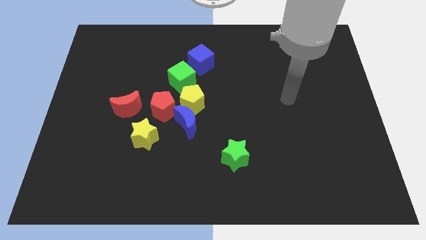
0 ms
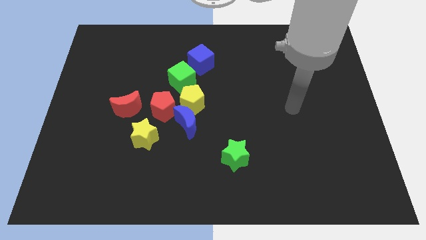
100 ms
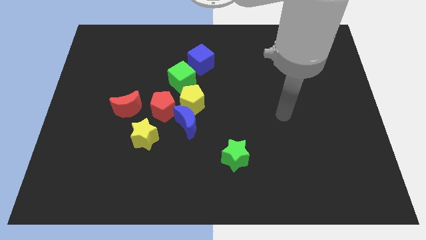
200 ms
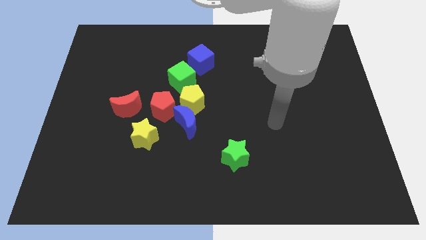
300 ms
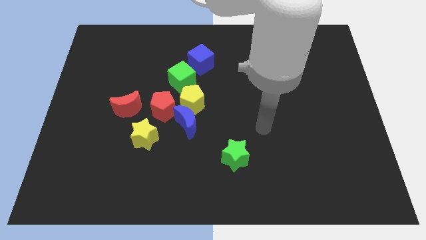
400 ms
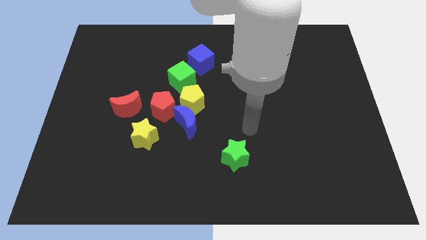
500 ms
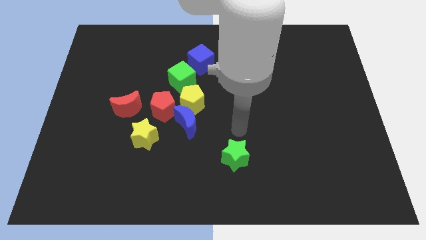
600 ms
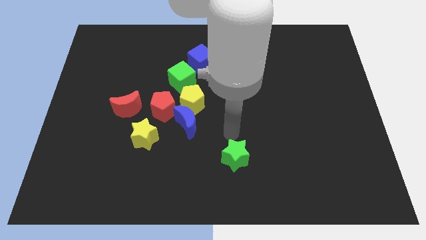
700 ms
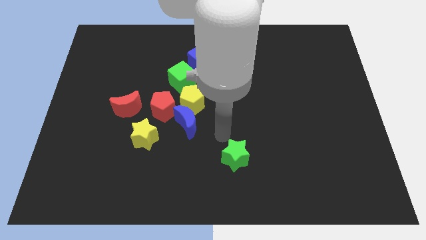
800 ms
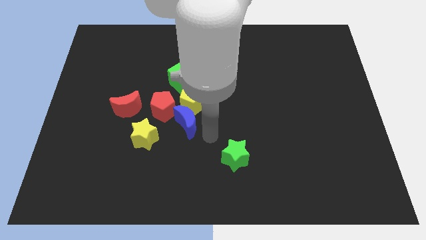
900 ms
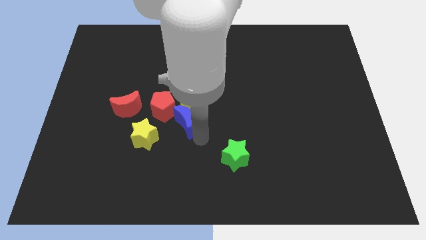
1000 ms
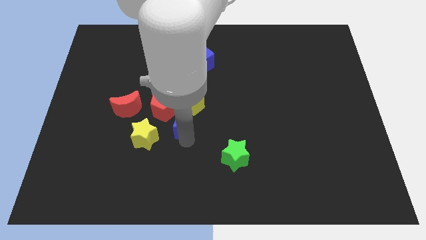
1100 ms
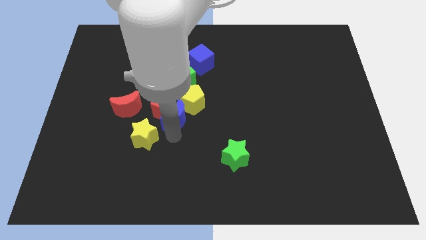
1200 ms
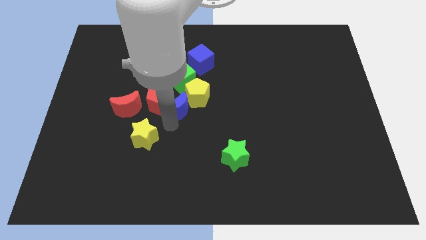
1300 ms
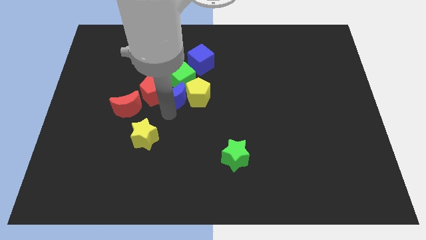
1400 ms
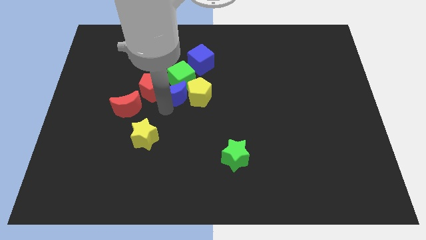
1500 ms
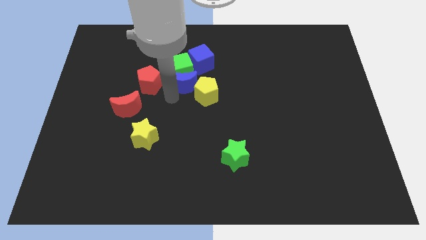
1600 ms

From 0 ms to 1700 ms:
move the yellow pentagon away from the group of blocks

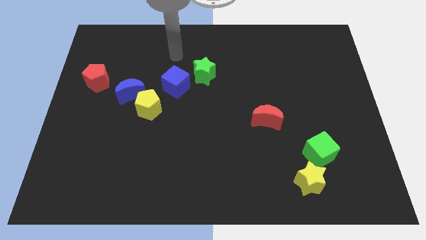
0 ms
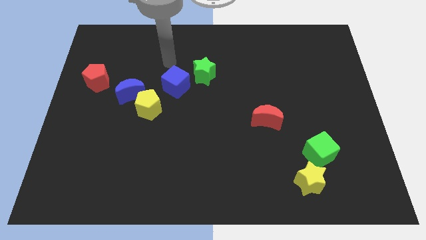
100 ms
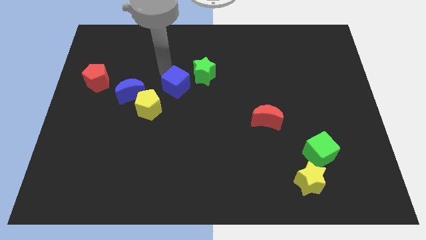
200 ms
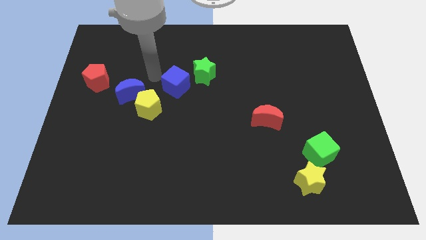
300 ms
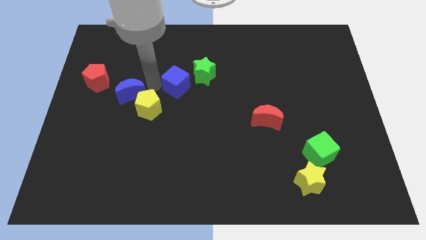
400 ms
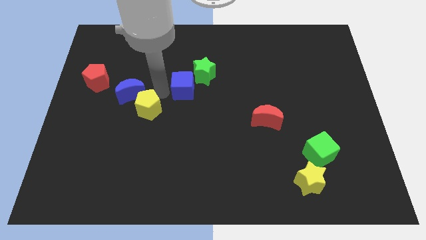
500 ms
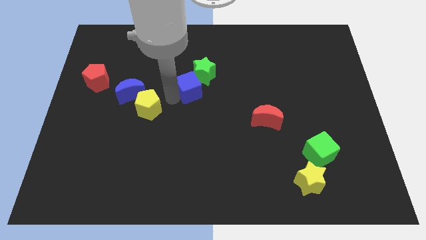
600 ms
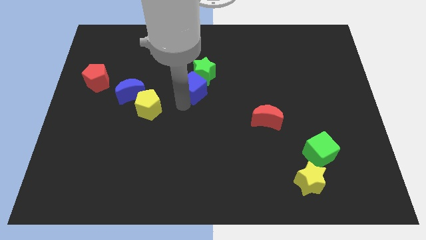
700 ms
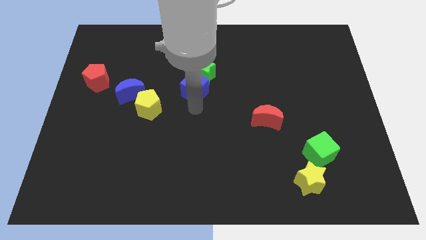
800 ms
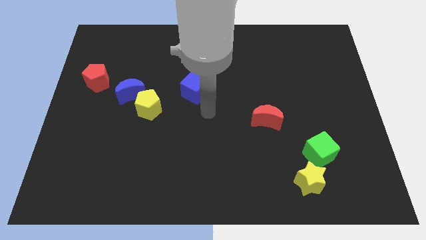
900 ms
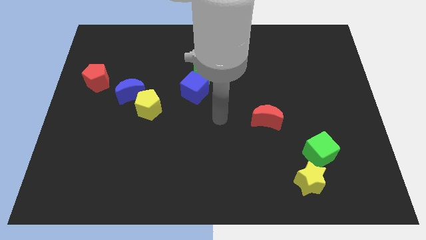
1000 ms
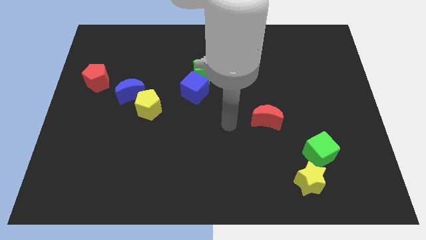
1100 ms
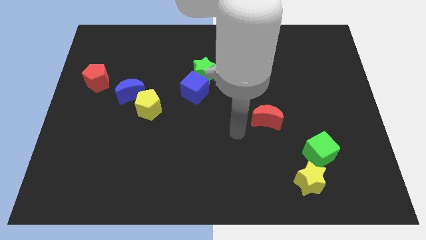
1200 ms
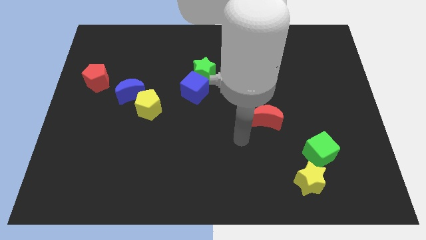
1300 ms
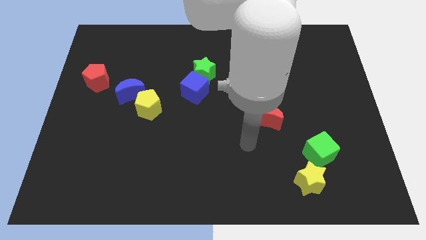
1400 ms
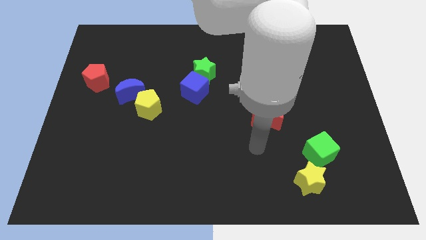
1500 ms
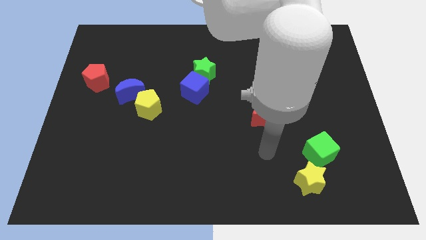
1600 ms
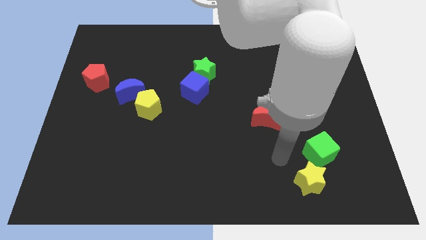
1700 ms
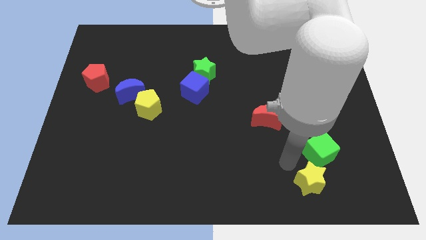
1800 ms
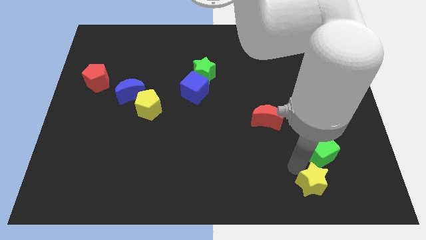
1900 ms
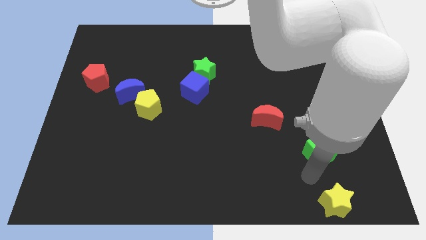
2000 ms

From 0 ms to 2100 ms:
move the green cube away from the yellow star

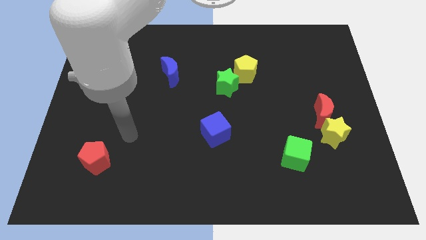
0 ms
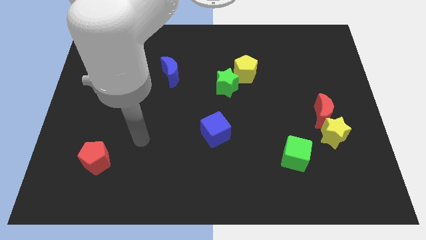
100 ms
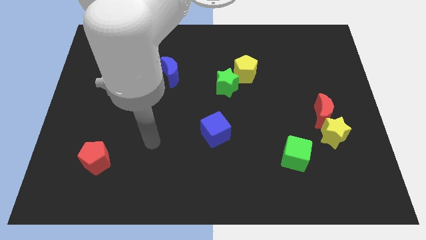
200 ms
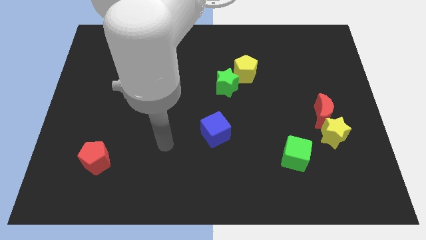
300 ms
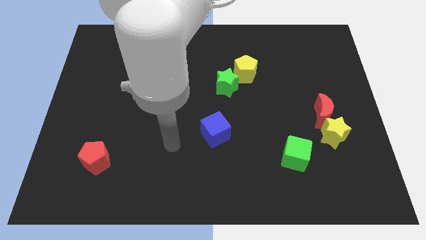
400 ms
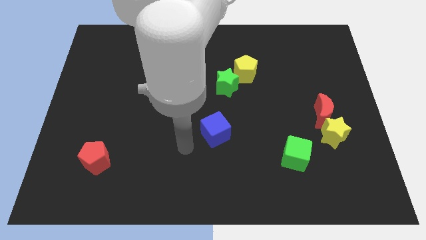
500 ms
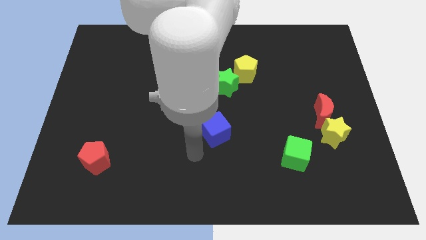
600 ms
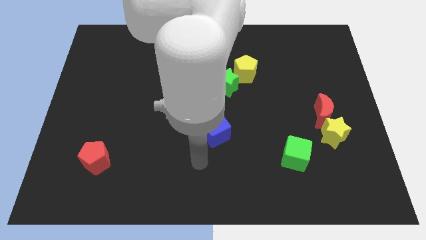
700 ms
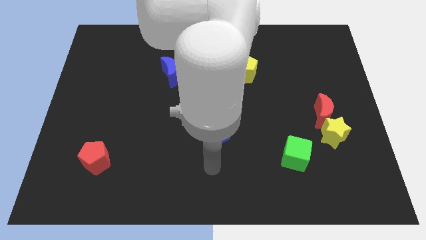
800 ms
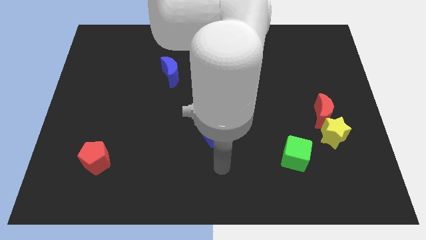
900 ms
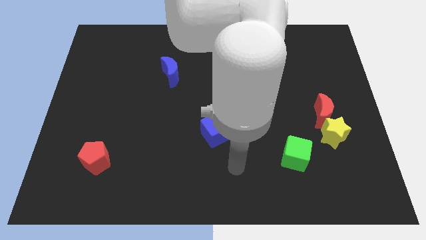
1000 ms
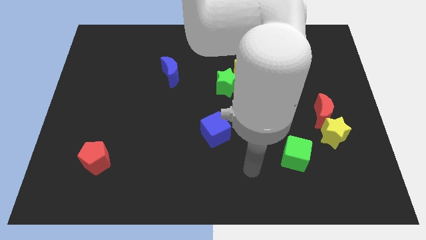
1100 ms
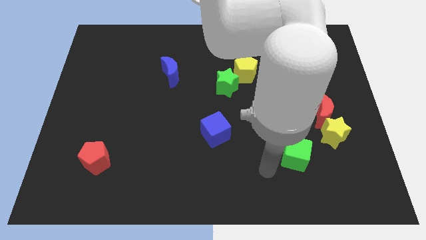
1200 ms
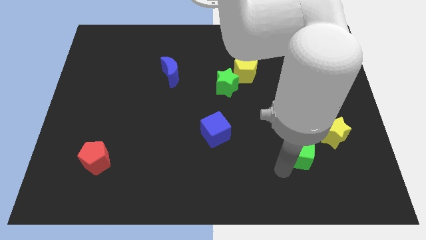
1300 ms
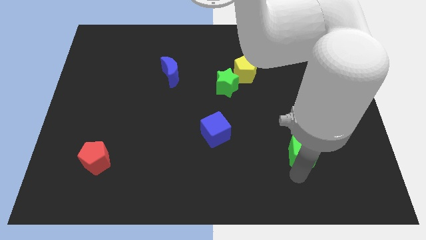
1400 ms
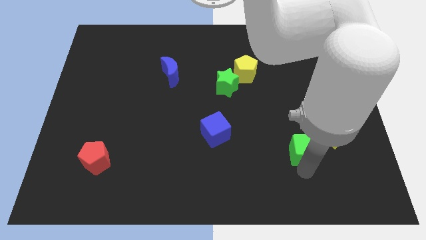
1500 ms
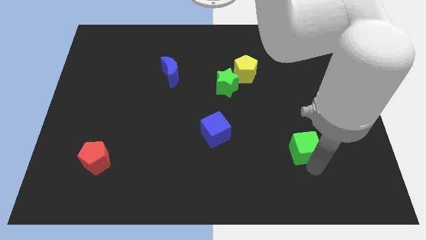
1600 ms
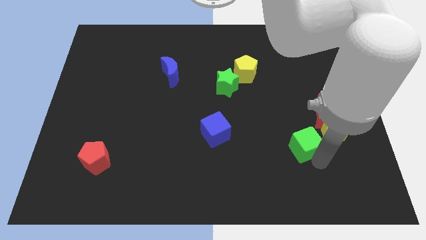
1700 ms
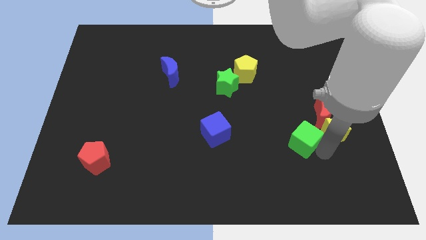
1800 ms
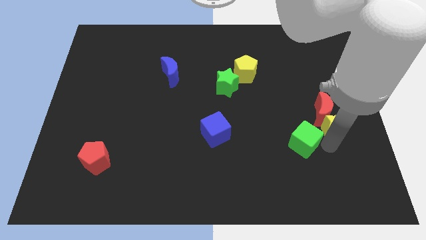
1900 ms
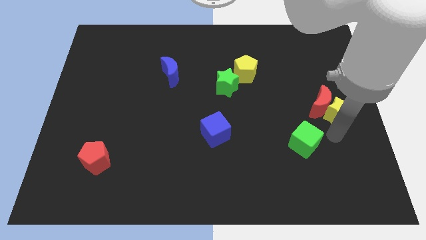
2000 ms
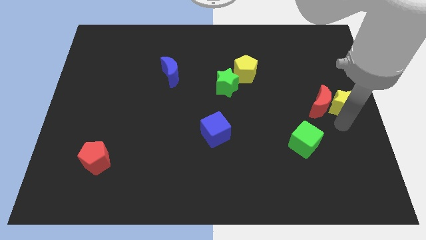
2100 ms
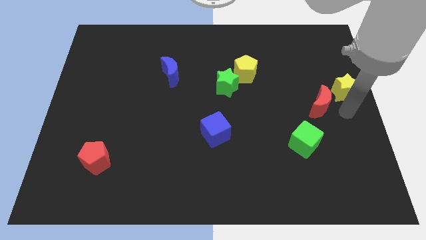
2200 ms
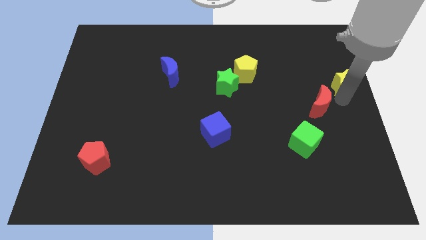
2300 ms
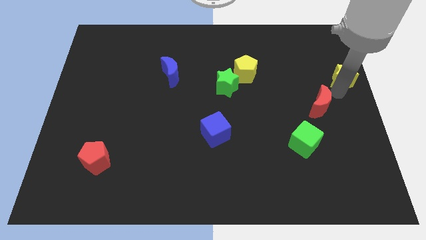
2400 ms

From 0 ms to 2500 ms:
move the red moon away from the yellow star

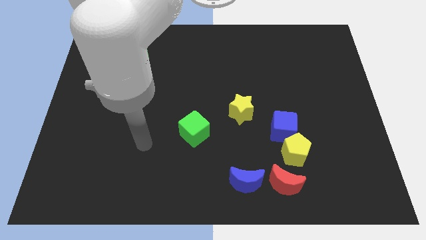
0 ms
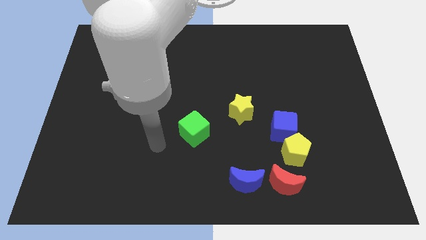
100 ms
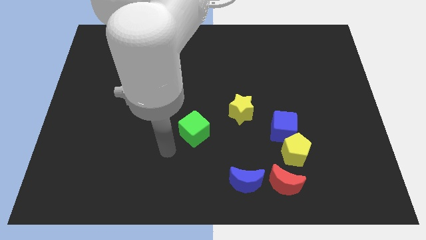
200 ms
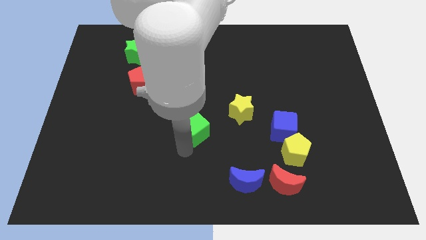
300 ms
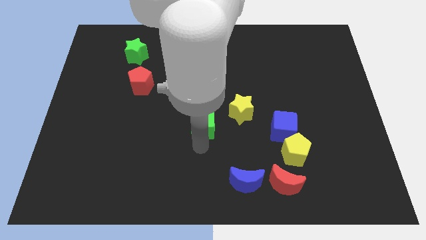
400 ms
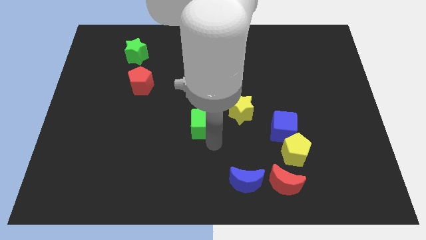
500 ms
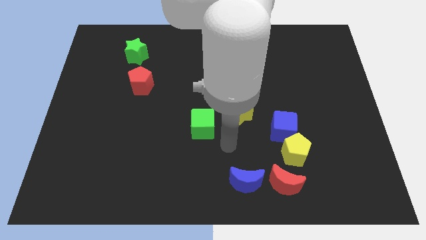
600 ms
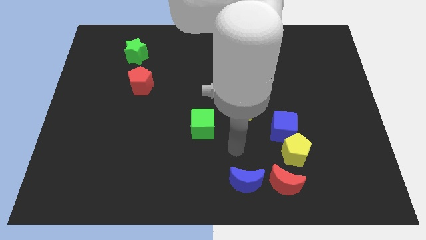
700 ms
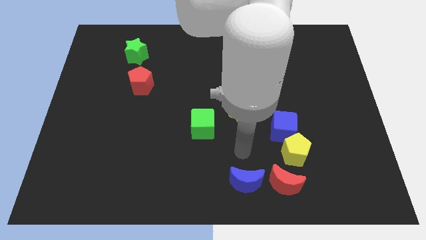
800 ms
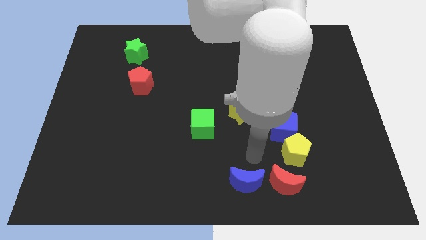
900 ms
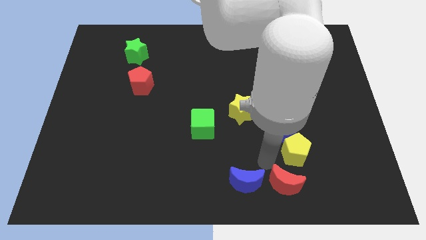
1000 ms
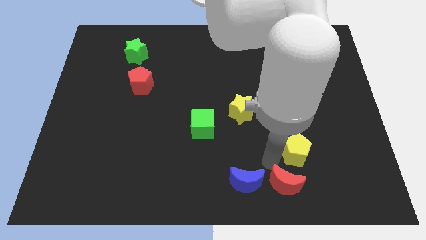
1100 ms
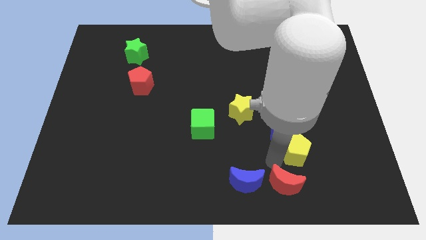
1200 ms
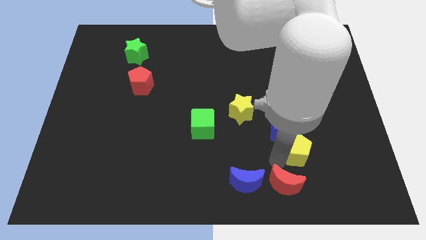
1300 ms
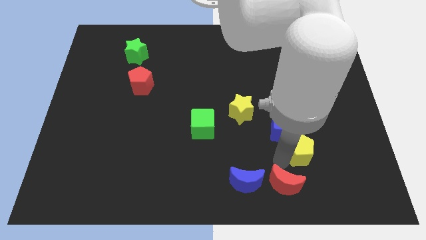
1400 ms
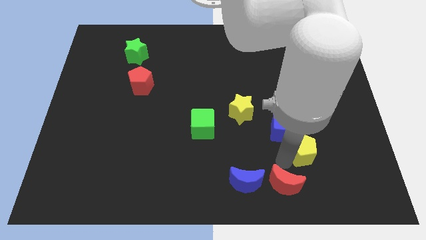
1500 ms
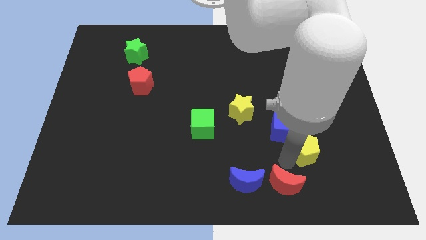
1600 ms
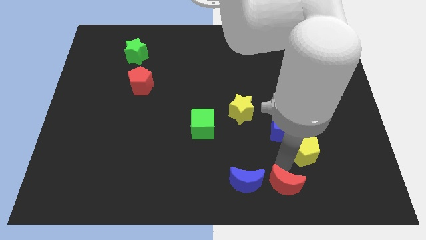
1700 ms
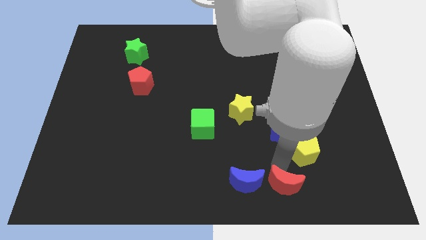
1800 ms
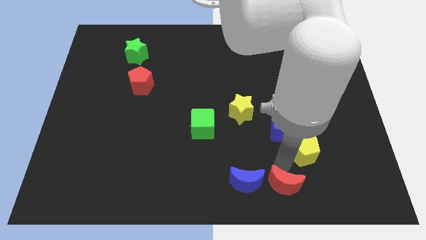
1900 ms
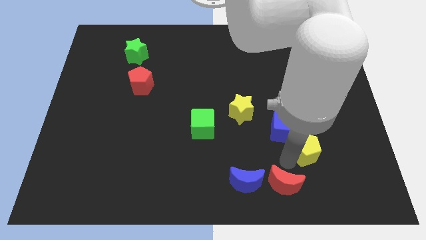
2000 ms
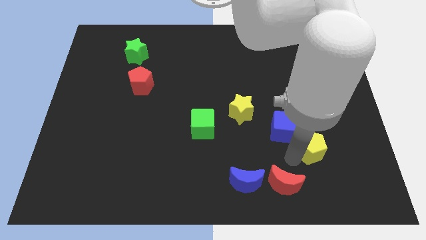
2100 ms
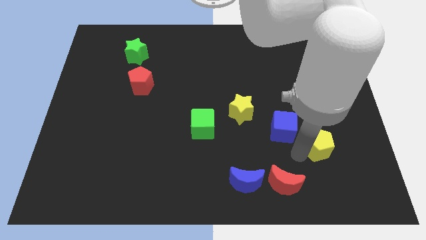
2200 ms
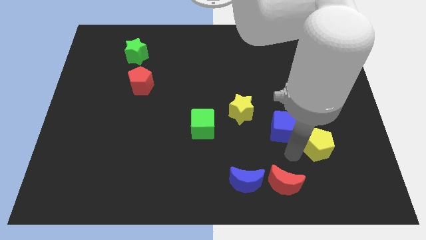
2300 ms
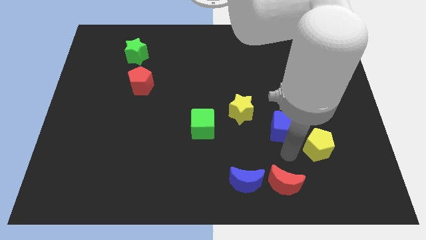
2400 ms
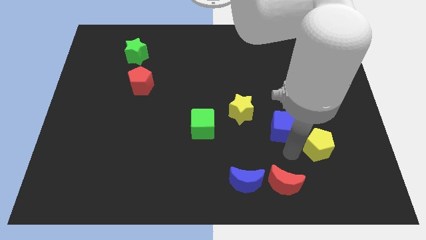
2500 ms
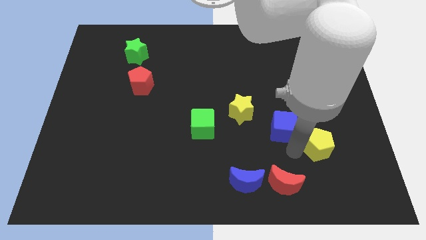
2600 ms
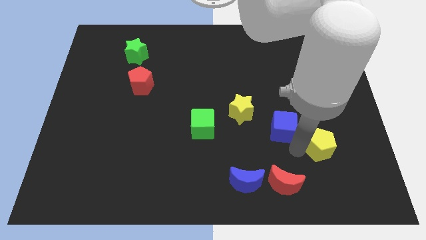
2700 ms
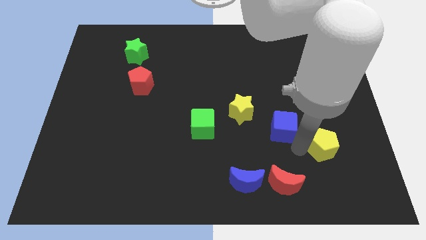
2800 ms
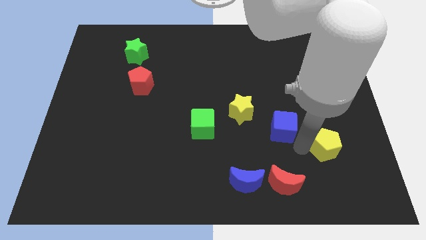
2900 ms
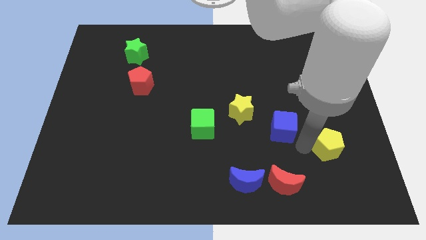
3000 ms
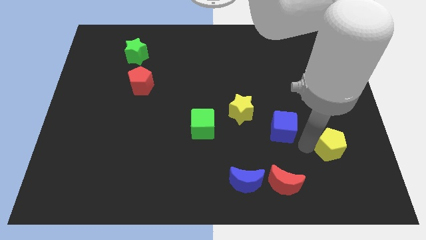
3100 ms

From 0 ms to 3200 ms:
separate the yellow pentagon from the blue cube and red moon
